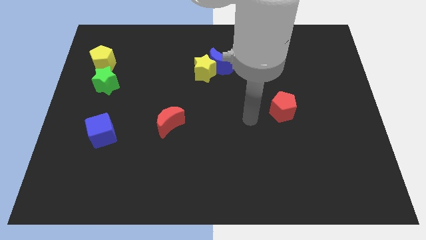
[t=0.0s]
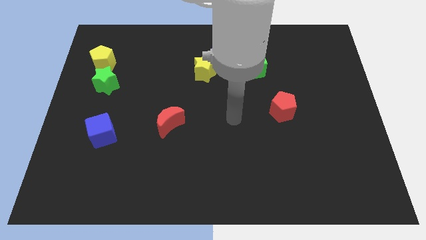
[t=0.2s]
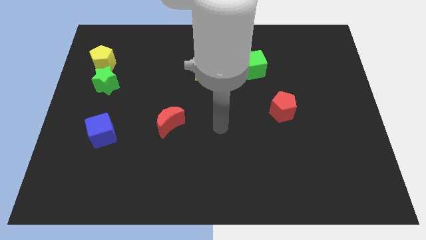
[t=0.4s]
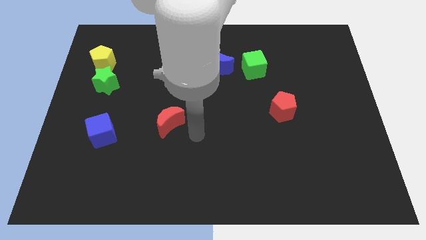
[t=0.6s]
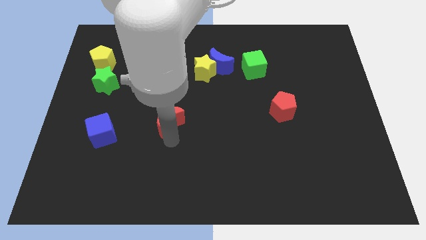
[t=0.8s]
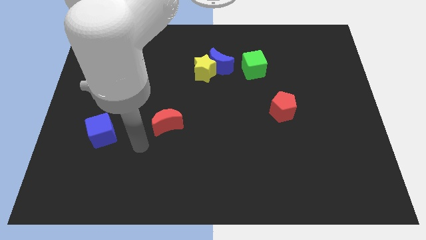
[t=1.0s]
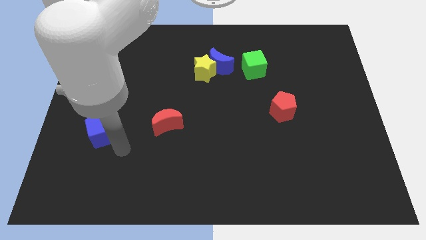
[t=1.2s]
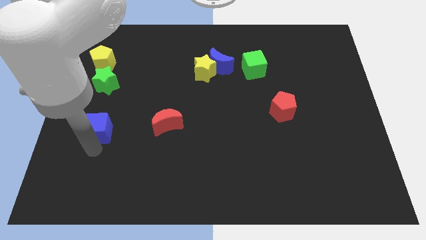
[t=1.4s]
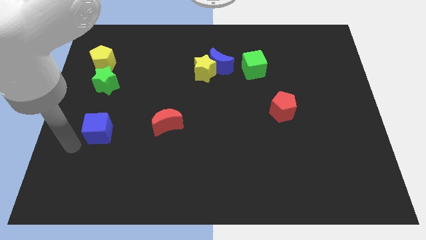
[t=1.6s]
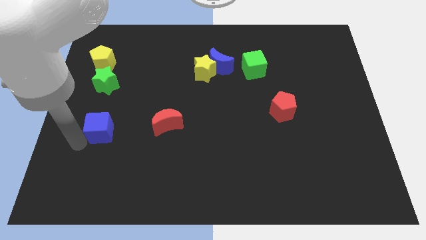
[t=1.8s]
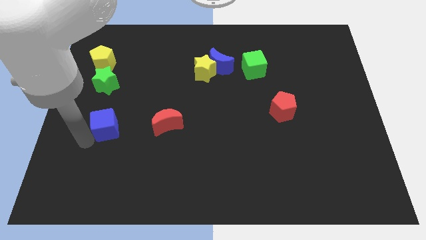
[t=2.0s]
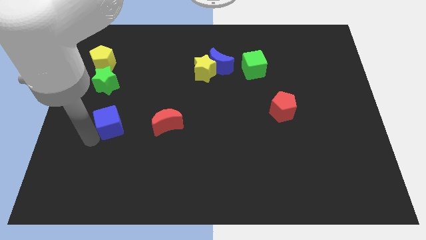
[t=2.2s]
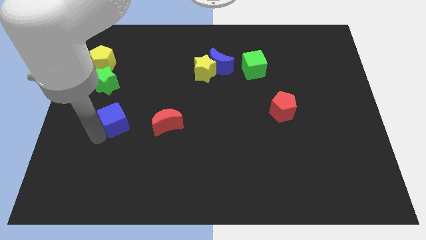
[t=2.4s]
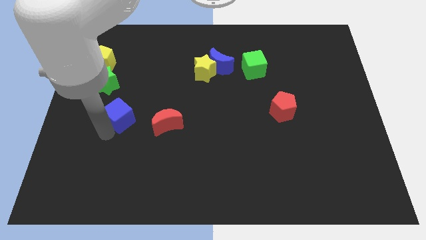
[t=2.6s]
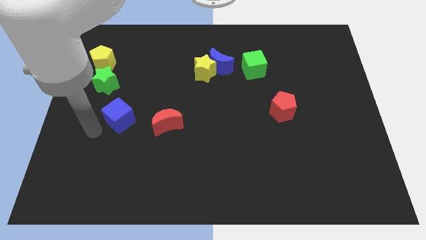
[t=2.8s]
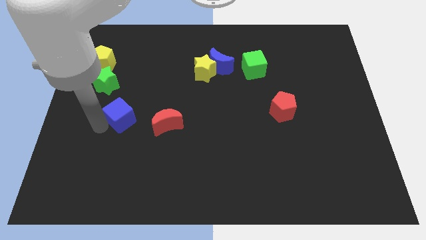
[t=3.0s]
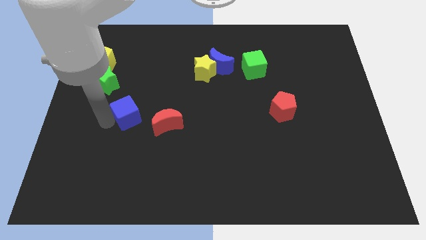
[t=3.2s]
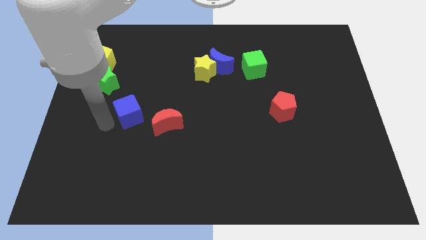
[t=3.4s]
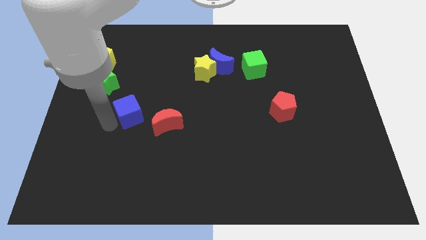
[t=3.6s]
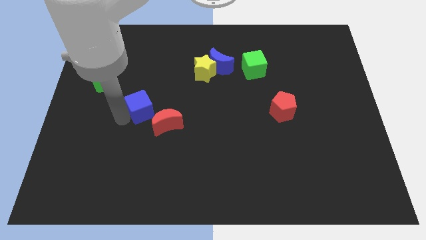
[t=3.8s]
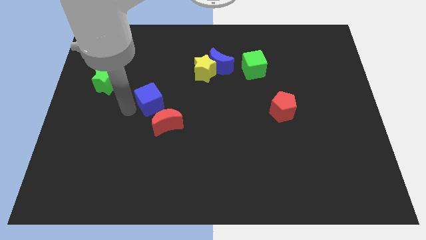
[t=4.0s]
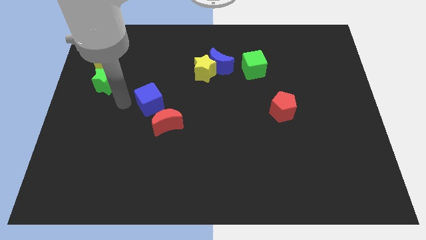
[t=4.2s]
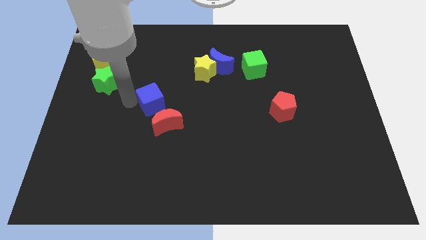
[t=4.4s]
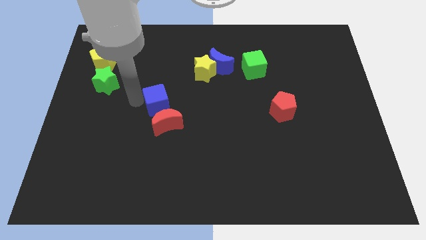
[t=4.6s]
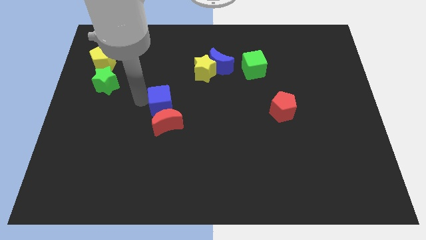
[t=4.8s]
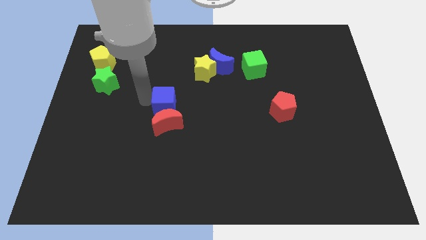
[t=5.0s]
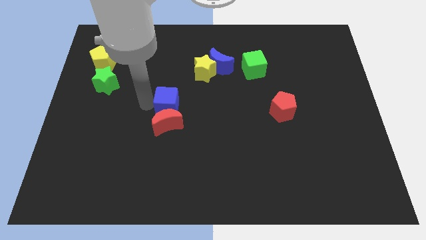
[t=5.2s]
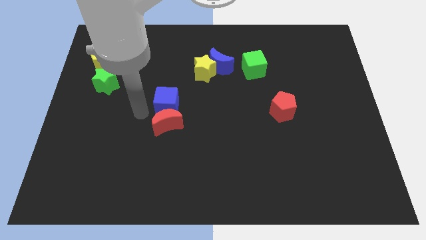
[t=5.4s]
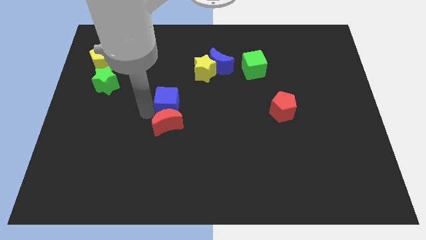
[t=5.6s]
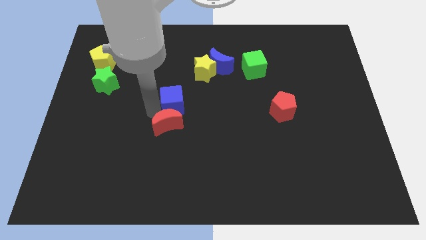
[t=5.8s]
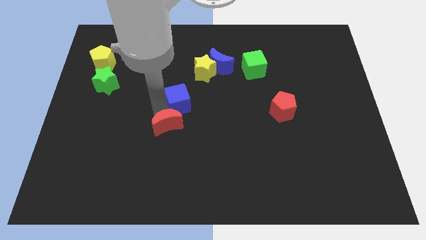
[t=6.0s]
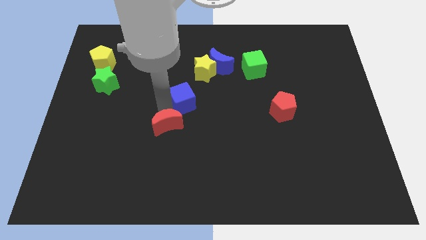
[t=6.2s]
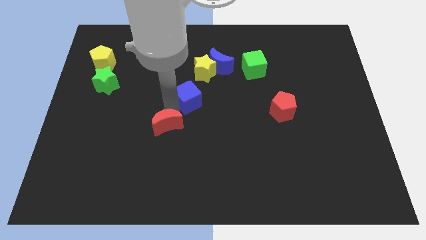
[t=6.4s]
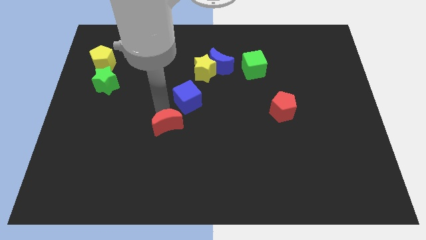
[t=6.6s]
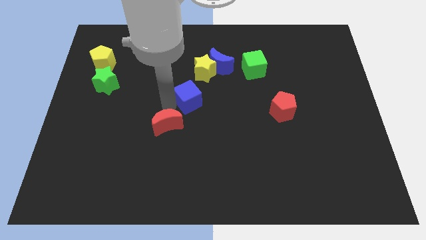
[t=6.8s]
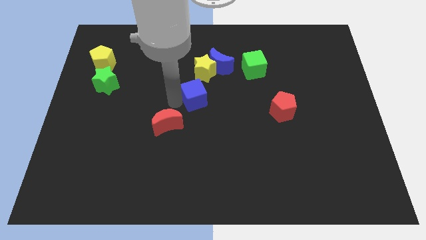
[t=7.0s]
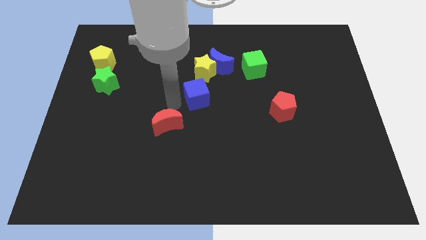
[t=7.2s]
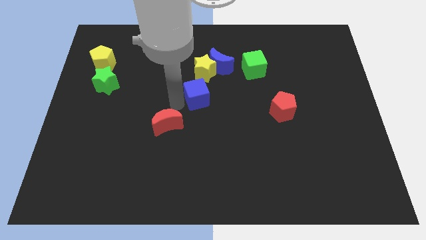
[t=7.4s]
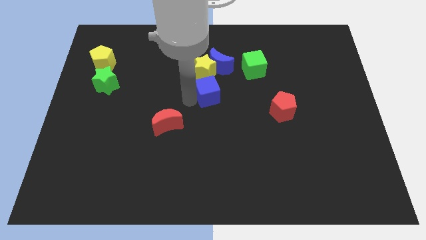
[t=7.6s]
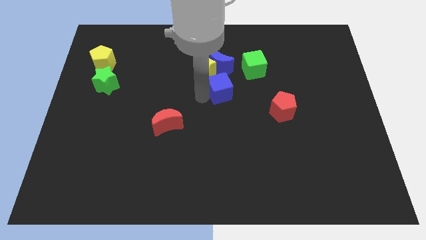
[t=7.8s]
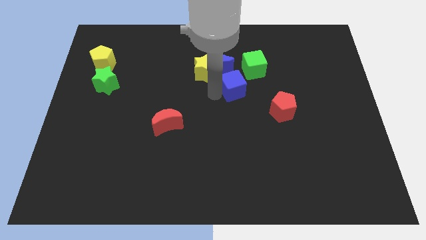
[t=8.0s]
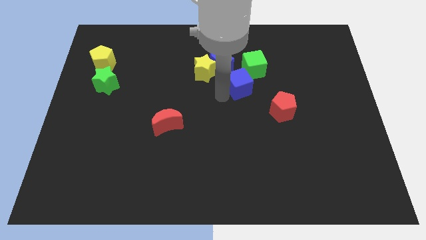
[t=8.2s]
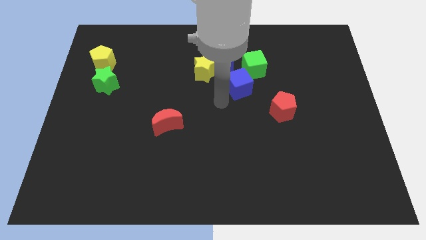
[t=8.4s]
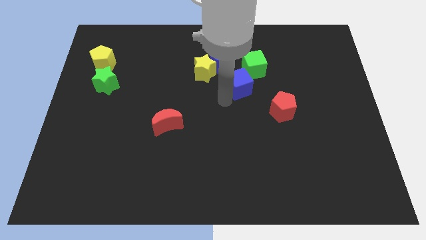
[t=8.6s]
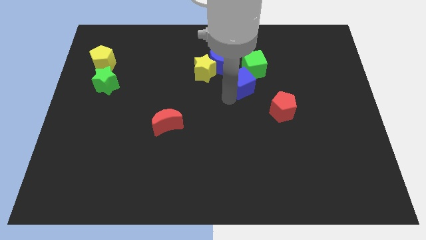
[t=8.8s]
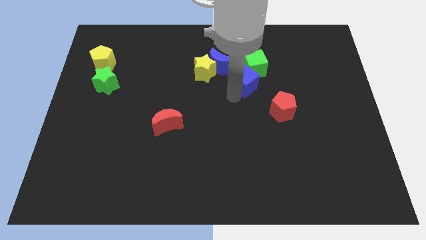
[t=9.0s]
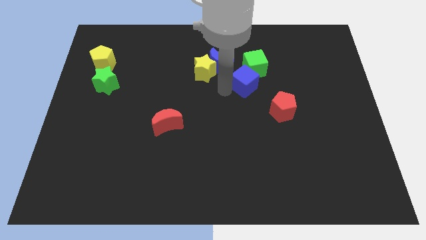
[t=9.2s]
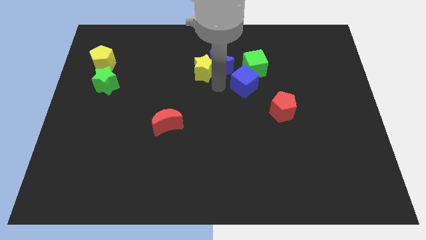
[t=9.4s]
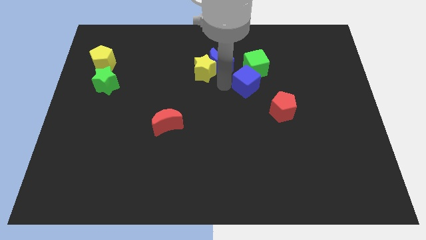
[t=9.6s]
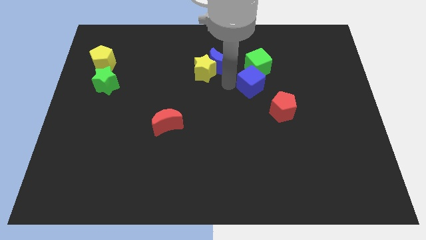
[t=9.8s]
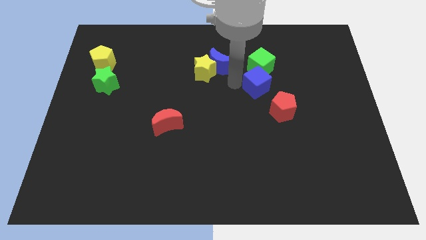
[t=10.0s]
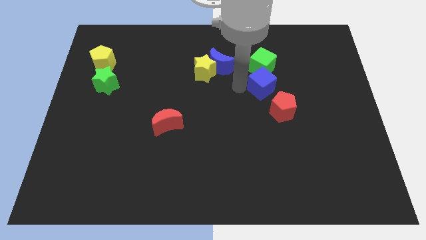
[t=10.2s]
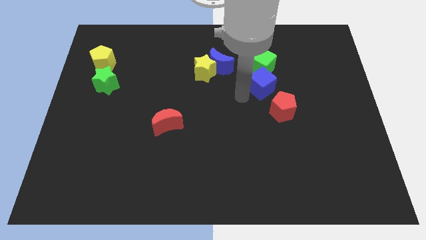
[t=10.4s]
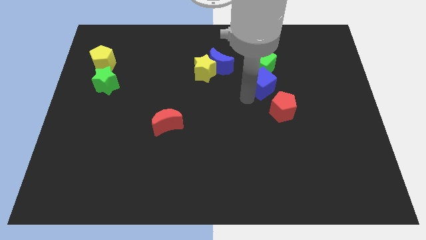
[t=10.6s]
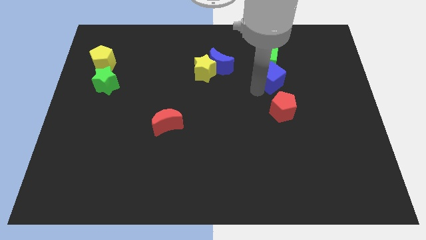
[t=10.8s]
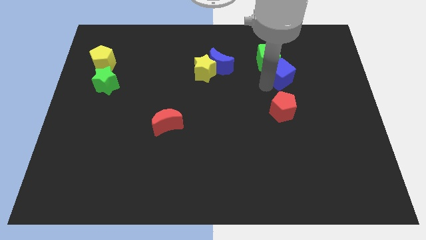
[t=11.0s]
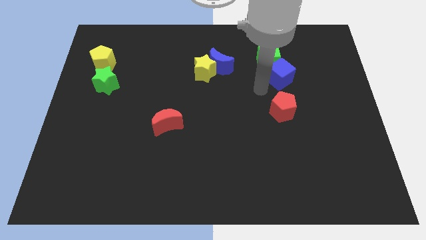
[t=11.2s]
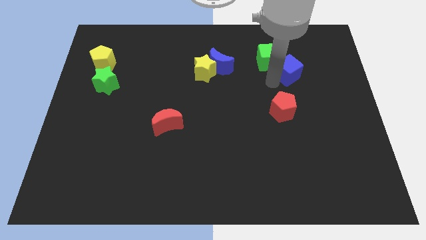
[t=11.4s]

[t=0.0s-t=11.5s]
slide the blue cube right of the green cube

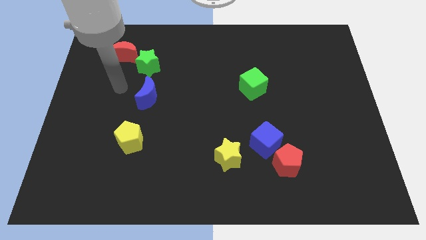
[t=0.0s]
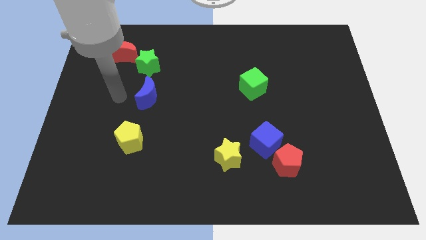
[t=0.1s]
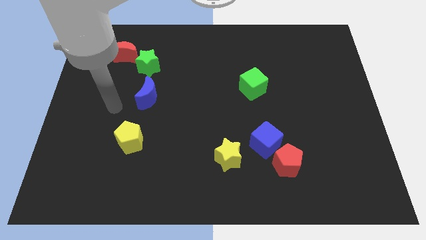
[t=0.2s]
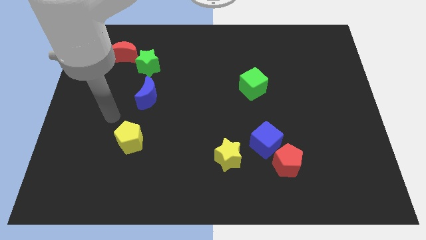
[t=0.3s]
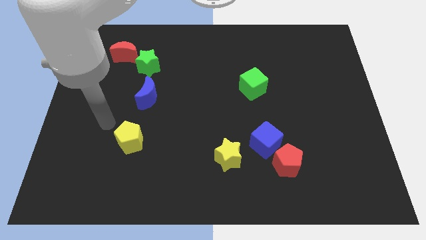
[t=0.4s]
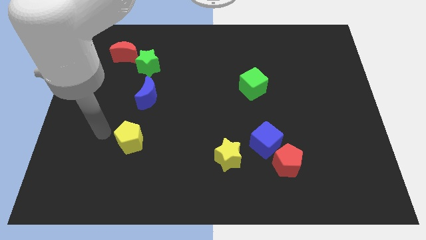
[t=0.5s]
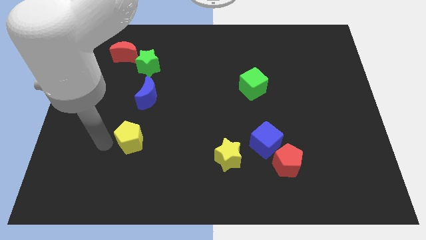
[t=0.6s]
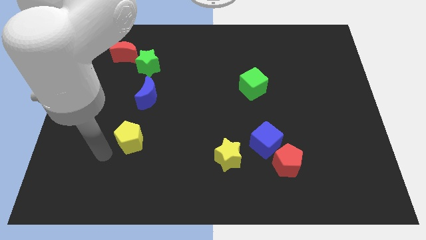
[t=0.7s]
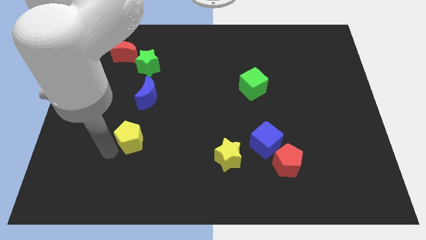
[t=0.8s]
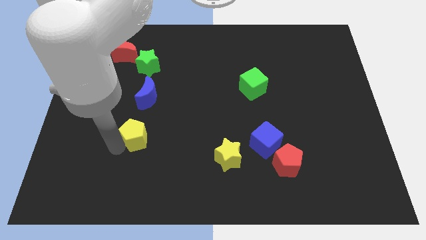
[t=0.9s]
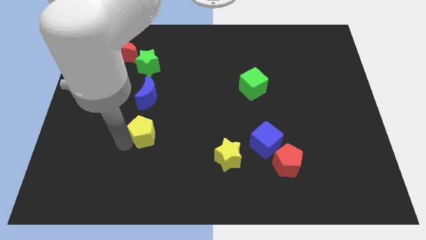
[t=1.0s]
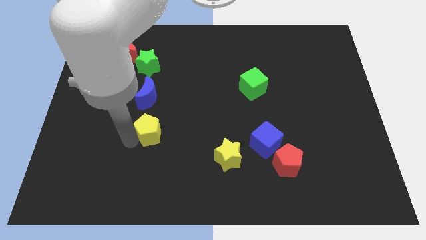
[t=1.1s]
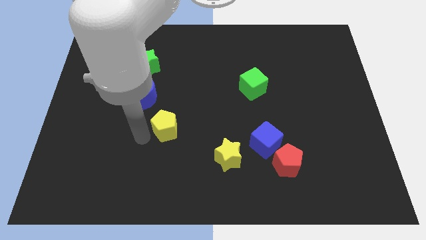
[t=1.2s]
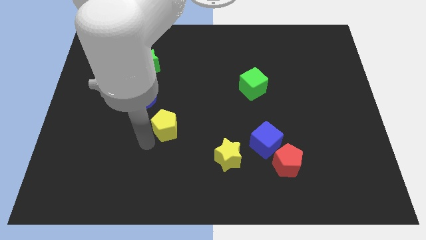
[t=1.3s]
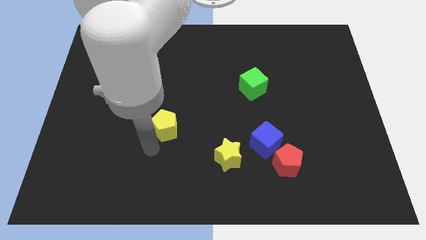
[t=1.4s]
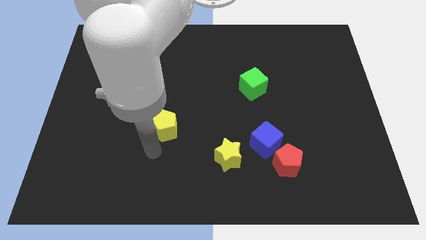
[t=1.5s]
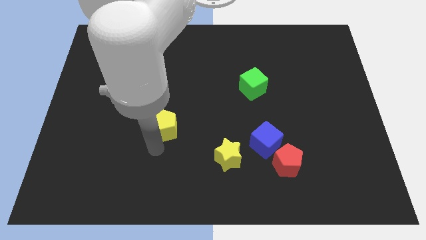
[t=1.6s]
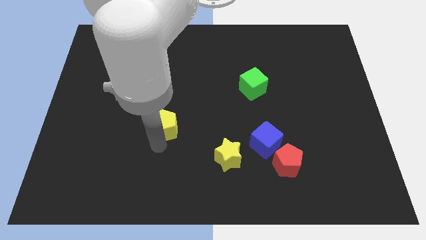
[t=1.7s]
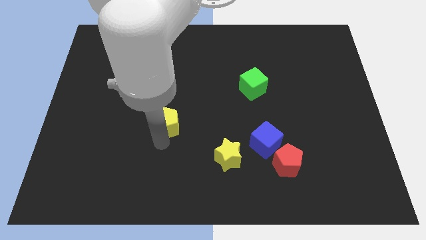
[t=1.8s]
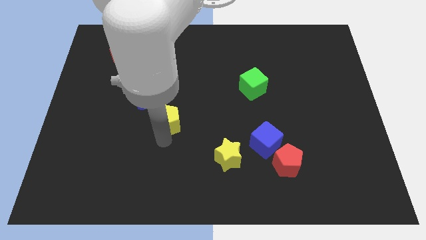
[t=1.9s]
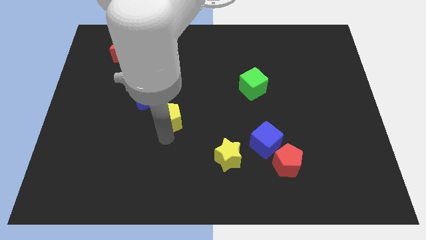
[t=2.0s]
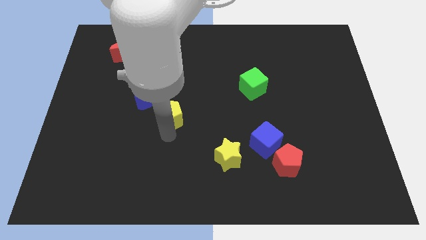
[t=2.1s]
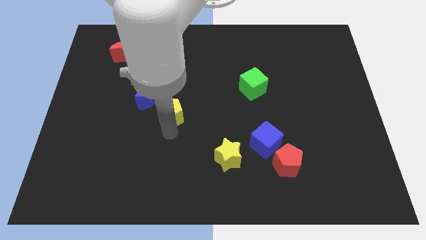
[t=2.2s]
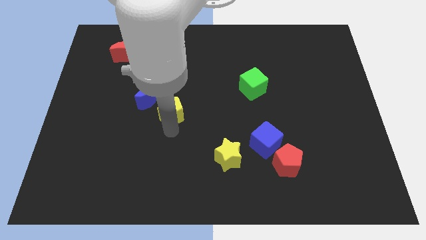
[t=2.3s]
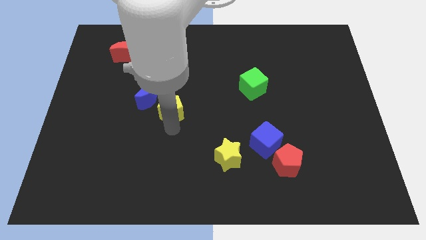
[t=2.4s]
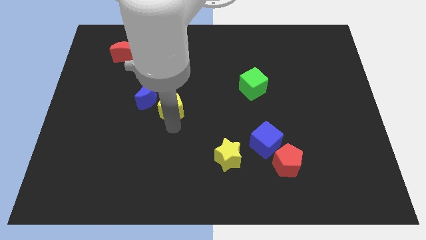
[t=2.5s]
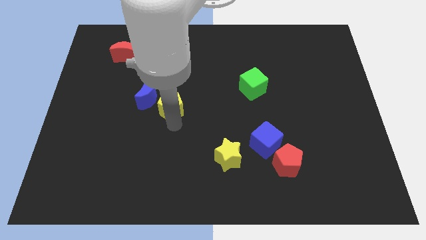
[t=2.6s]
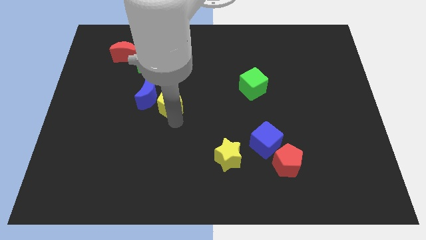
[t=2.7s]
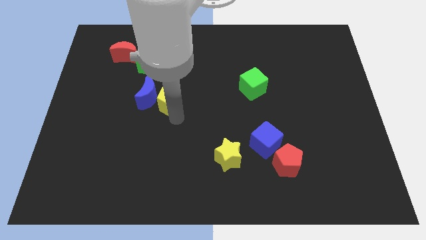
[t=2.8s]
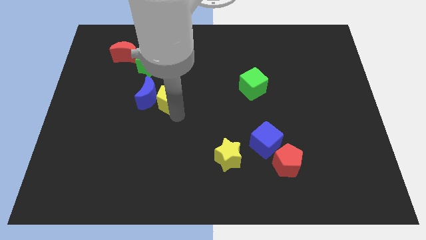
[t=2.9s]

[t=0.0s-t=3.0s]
push the yellow pentagon diagonally up and to the right of the blue moon
